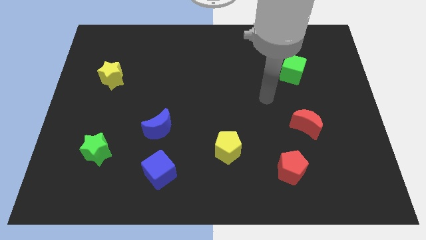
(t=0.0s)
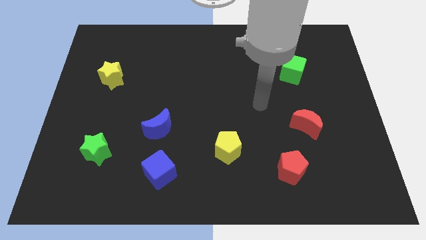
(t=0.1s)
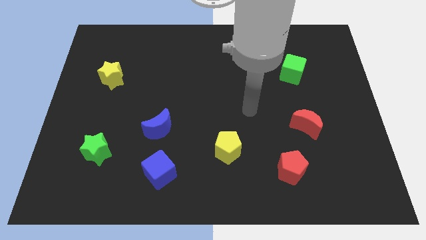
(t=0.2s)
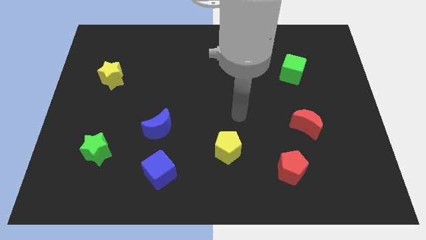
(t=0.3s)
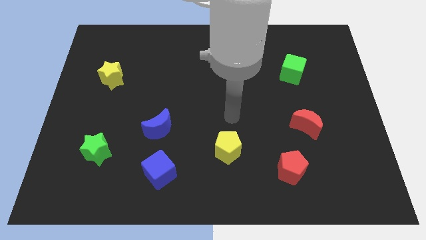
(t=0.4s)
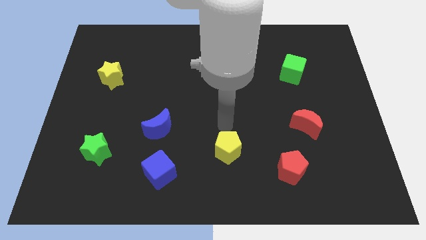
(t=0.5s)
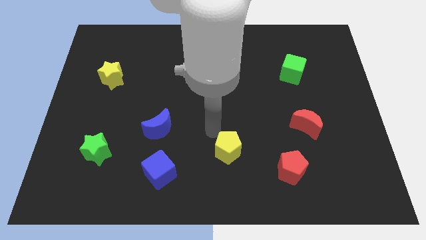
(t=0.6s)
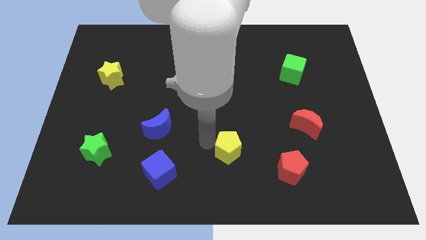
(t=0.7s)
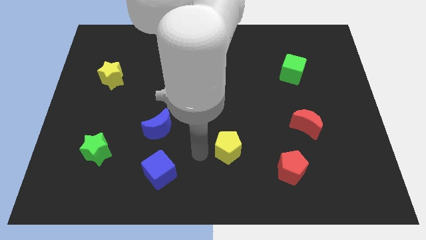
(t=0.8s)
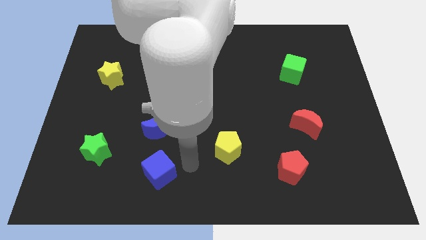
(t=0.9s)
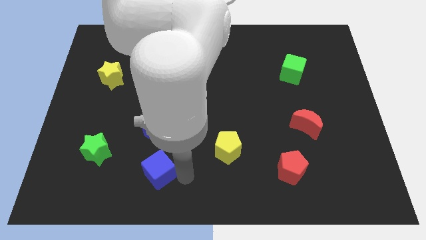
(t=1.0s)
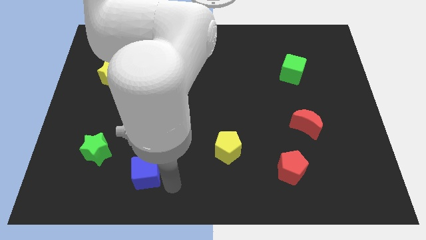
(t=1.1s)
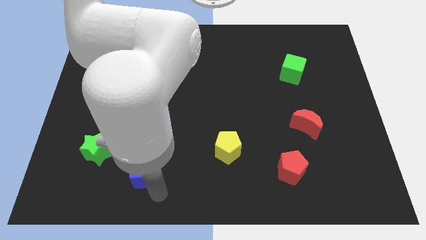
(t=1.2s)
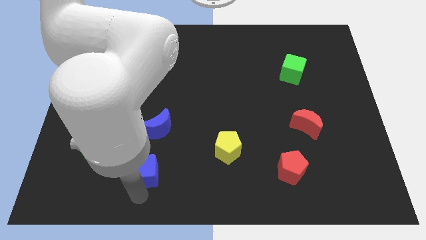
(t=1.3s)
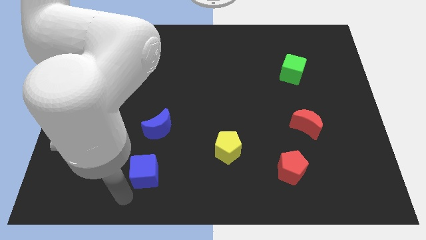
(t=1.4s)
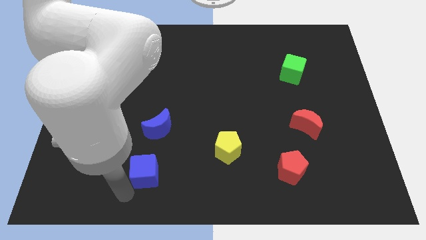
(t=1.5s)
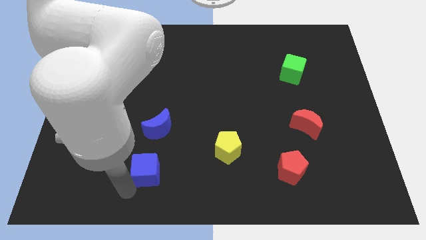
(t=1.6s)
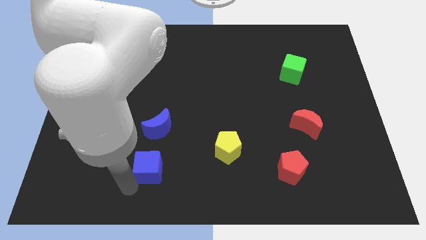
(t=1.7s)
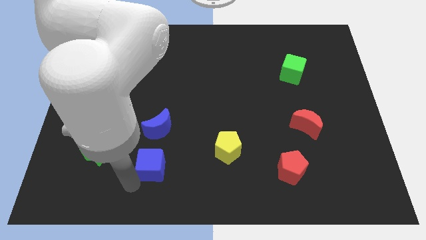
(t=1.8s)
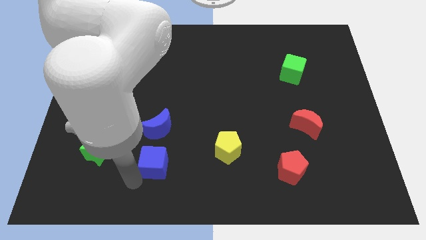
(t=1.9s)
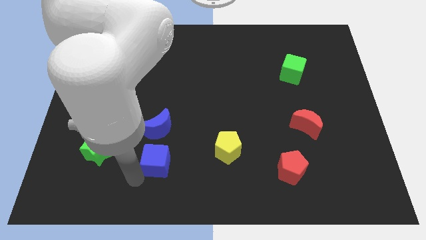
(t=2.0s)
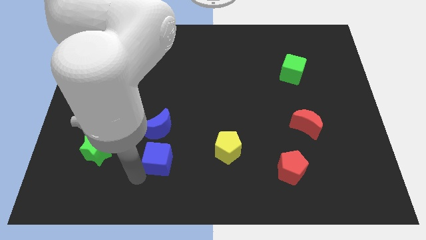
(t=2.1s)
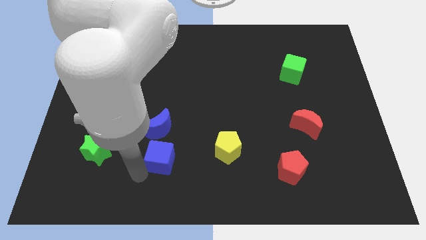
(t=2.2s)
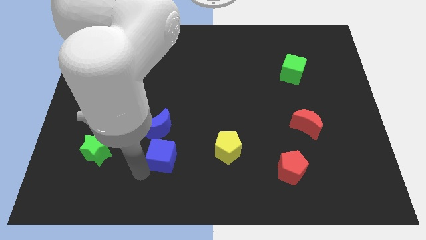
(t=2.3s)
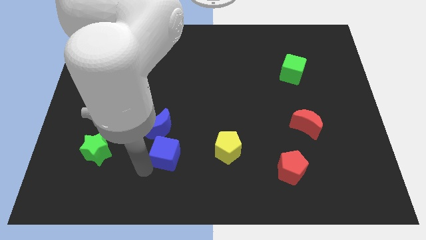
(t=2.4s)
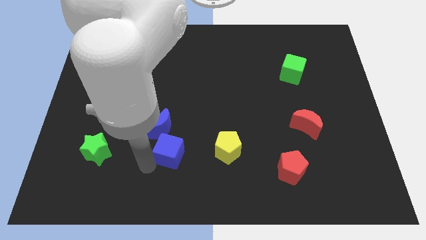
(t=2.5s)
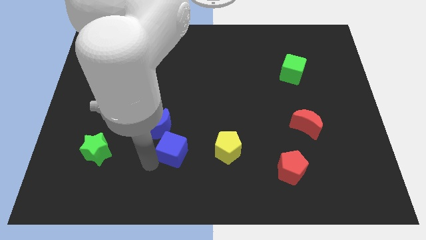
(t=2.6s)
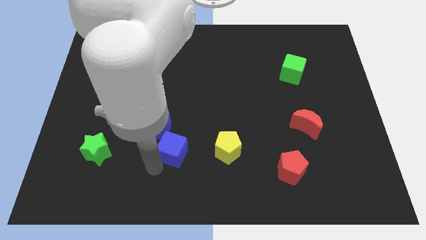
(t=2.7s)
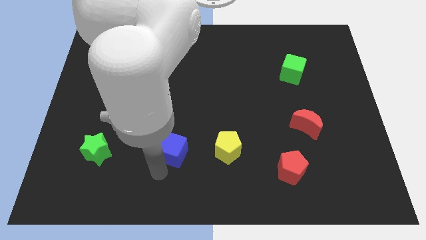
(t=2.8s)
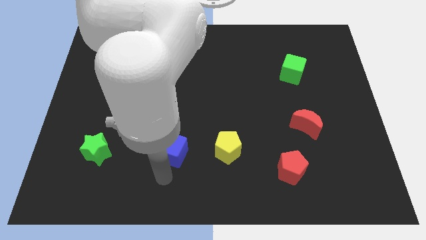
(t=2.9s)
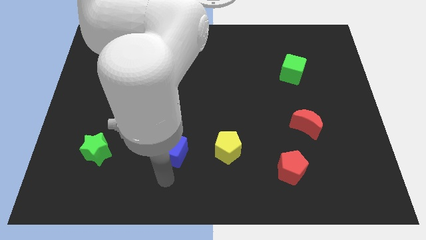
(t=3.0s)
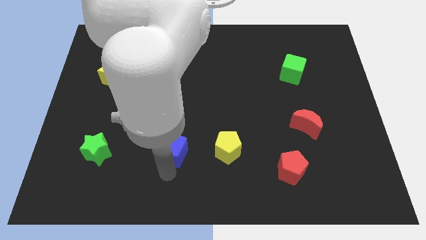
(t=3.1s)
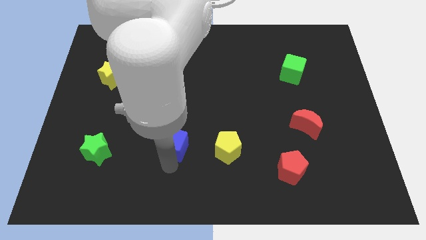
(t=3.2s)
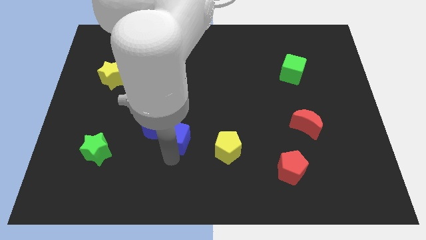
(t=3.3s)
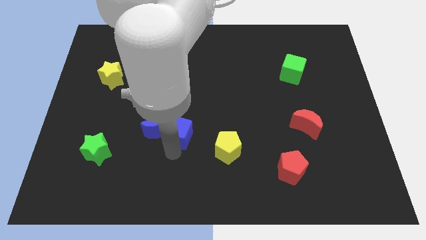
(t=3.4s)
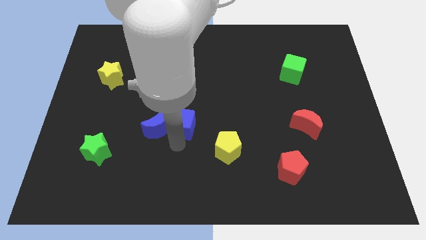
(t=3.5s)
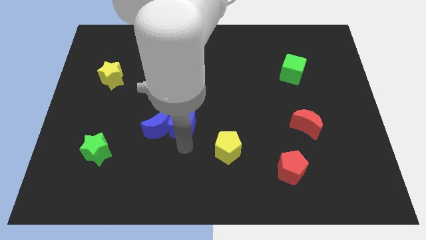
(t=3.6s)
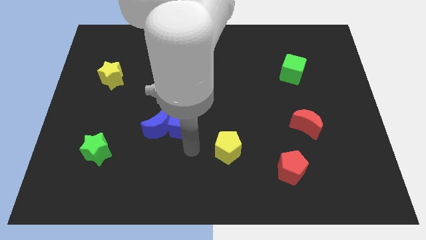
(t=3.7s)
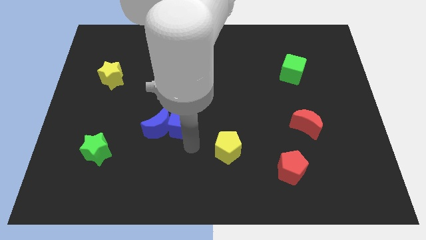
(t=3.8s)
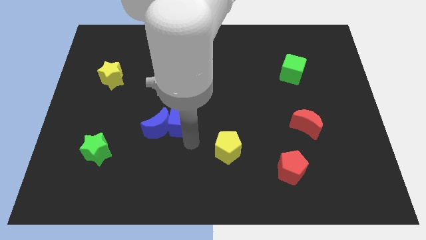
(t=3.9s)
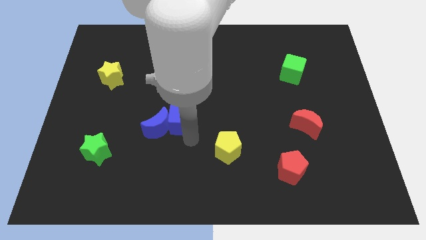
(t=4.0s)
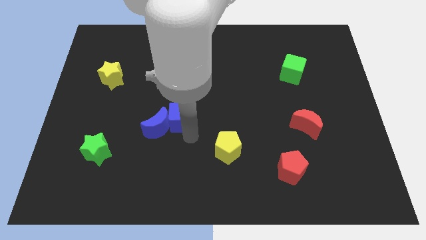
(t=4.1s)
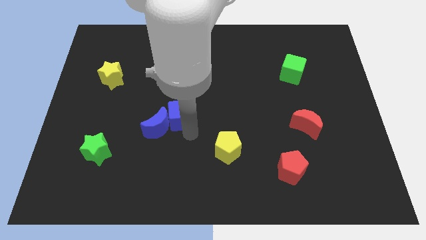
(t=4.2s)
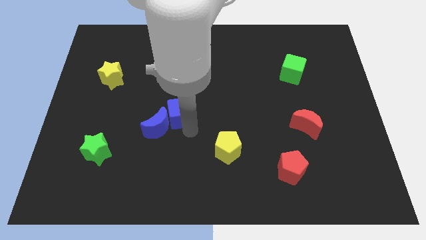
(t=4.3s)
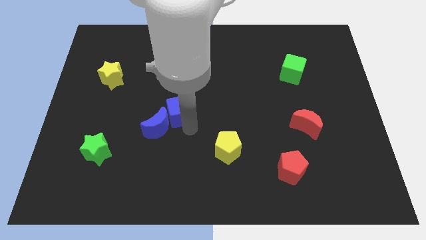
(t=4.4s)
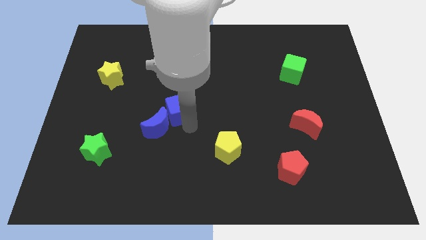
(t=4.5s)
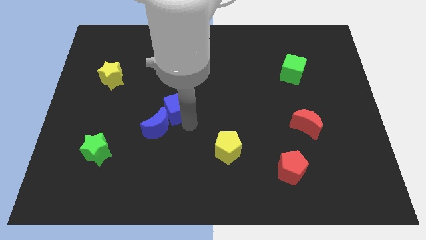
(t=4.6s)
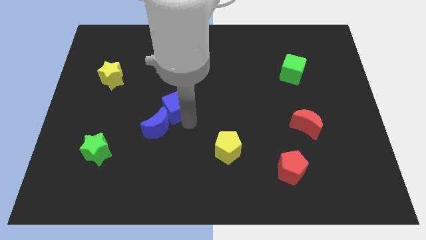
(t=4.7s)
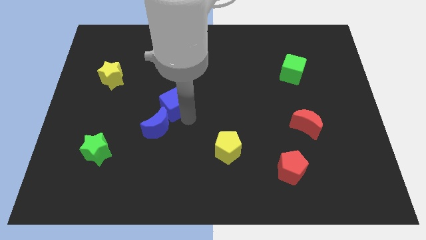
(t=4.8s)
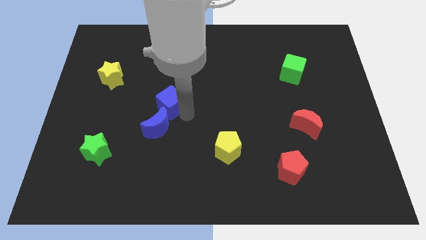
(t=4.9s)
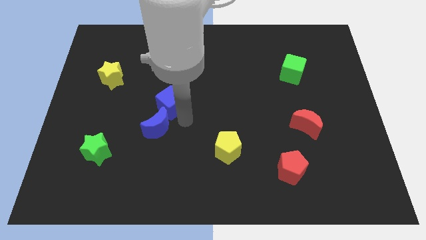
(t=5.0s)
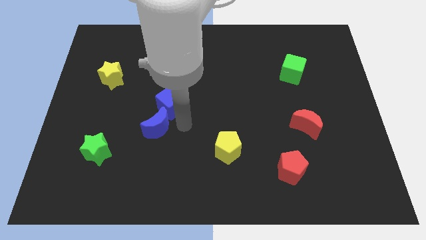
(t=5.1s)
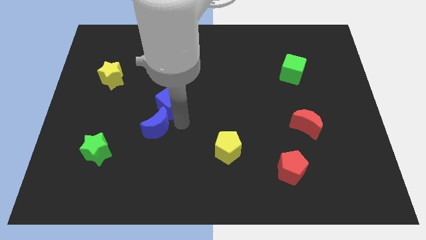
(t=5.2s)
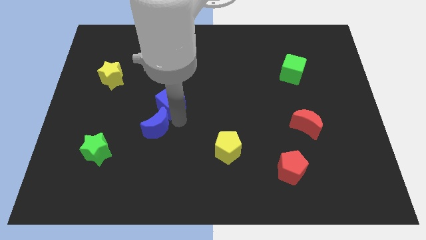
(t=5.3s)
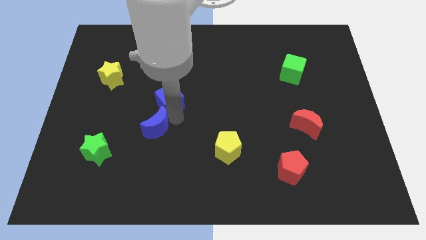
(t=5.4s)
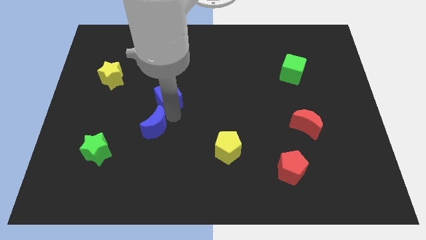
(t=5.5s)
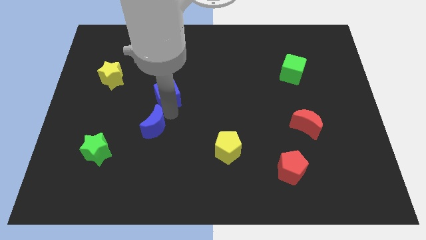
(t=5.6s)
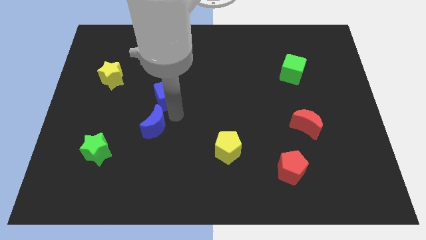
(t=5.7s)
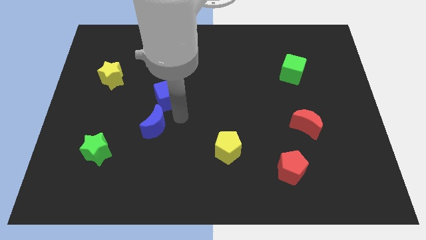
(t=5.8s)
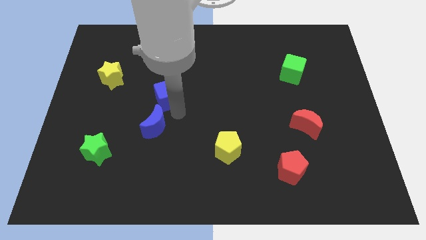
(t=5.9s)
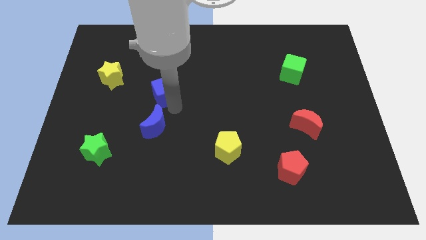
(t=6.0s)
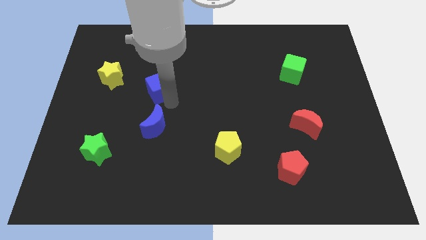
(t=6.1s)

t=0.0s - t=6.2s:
put the blue cube to the right of the yellow star

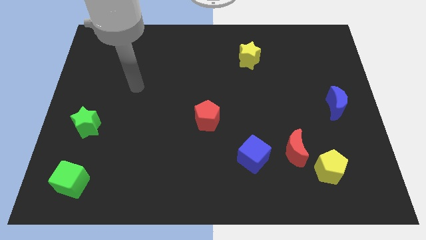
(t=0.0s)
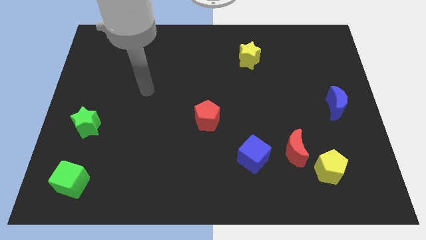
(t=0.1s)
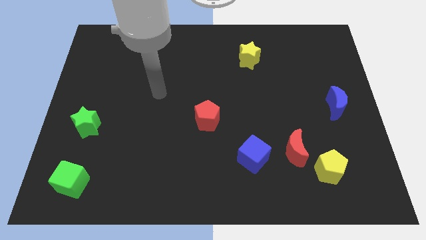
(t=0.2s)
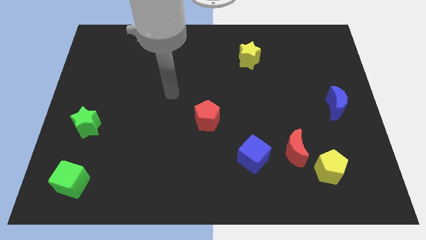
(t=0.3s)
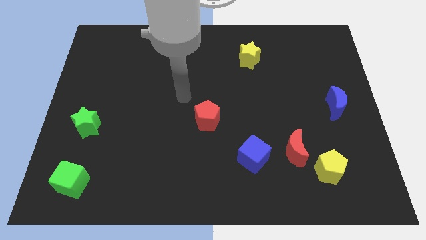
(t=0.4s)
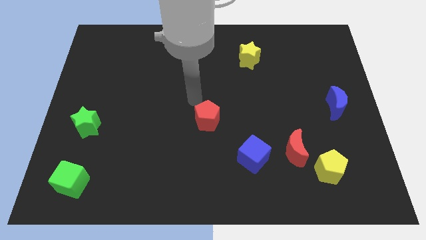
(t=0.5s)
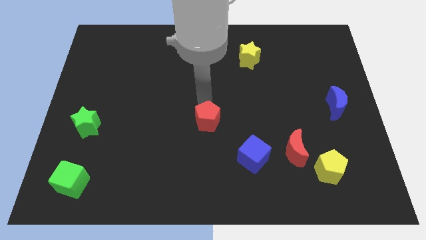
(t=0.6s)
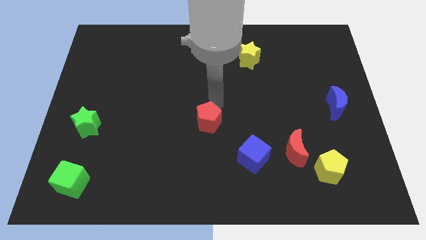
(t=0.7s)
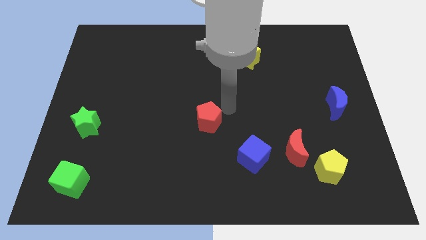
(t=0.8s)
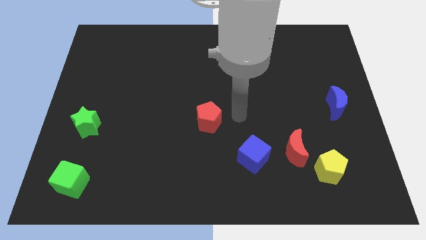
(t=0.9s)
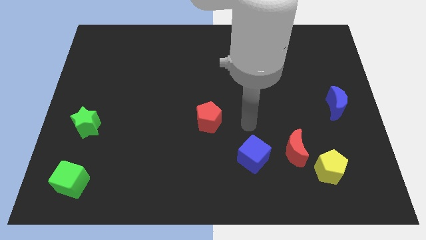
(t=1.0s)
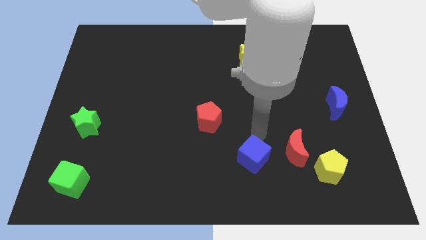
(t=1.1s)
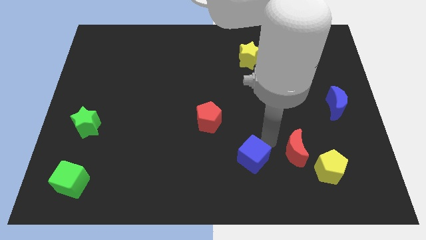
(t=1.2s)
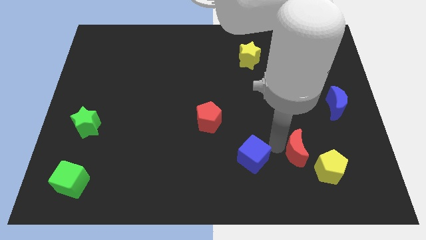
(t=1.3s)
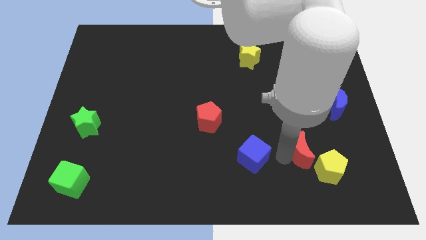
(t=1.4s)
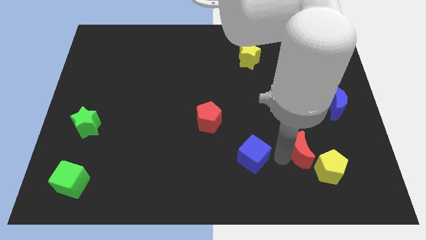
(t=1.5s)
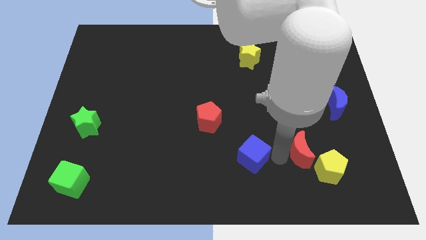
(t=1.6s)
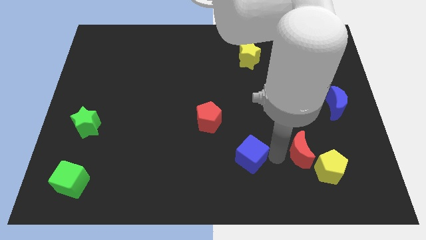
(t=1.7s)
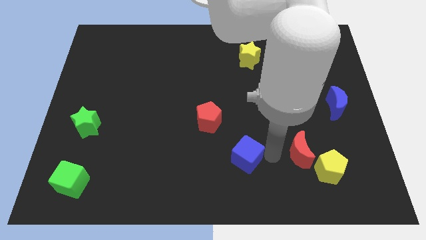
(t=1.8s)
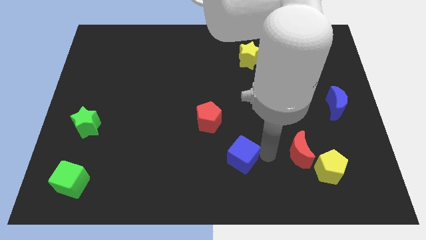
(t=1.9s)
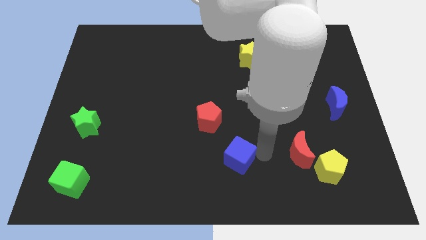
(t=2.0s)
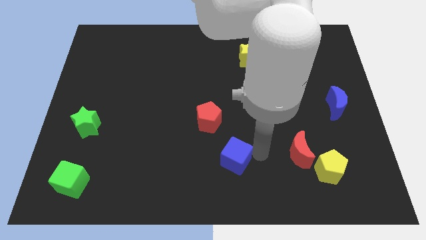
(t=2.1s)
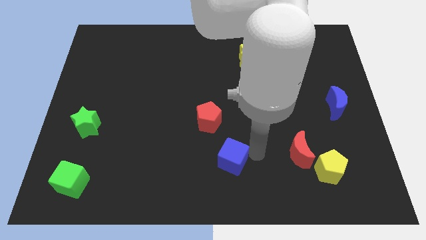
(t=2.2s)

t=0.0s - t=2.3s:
move the blue cube below the red pentagon
